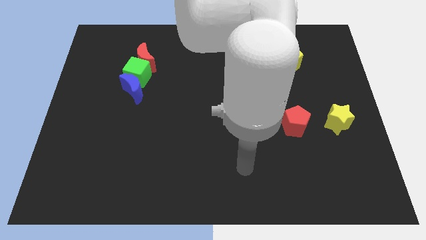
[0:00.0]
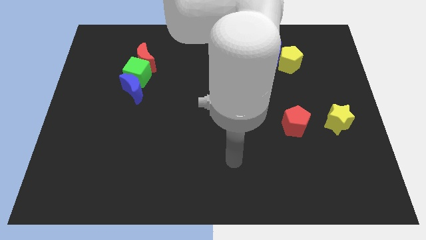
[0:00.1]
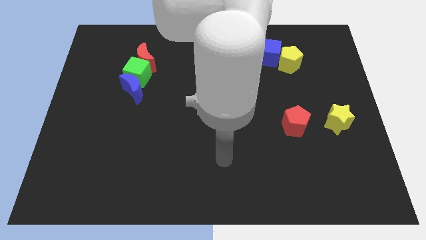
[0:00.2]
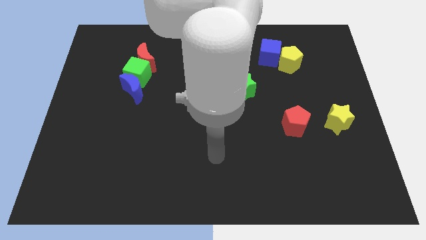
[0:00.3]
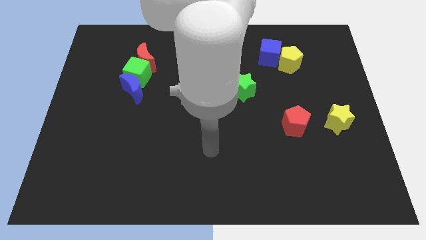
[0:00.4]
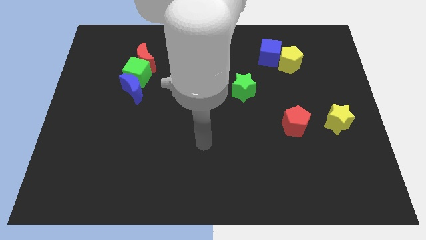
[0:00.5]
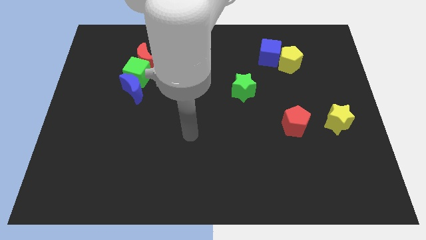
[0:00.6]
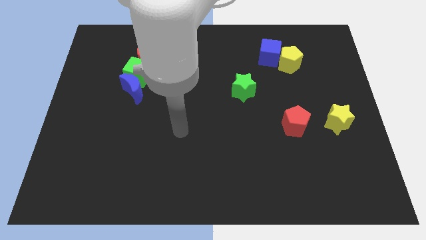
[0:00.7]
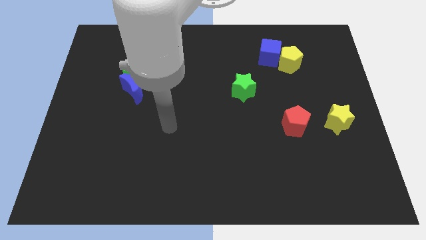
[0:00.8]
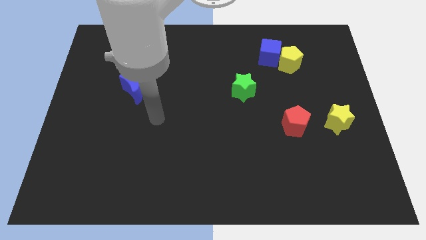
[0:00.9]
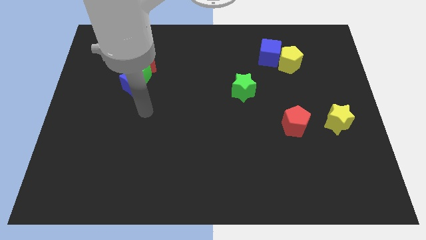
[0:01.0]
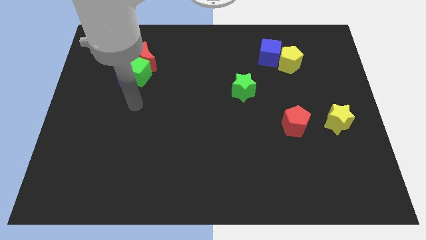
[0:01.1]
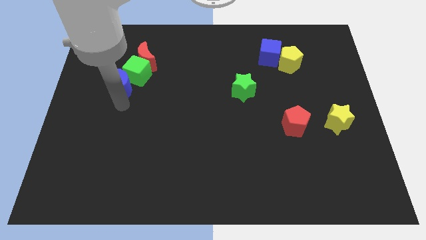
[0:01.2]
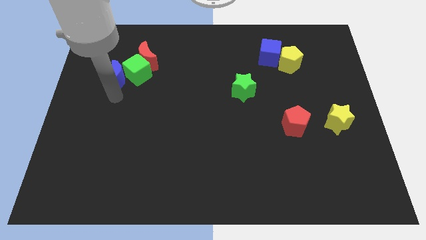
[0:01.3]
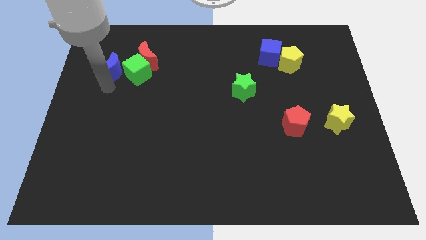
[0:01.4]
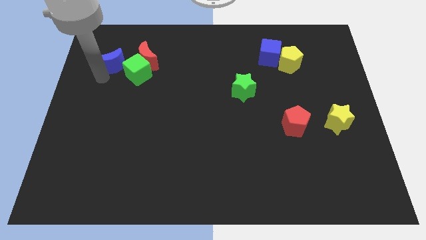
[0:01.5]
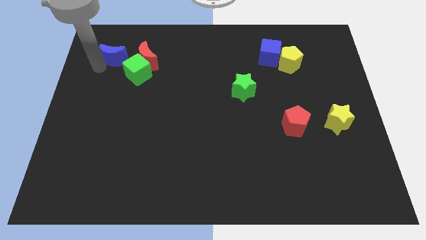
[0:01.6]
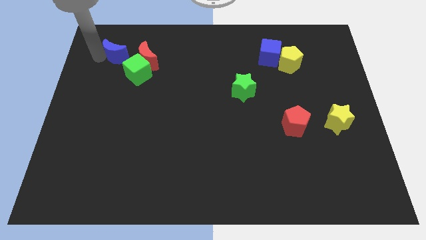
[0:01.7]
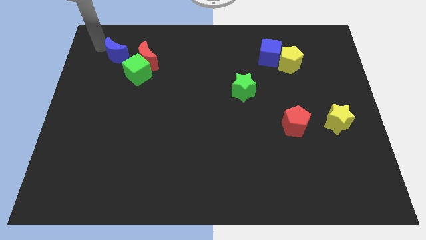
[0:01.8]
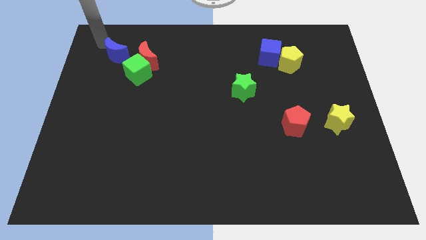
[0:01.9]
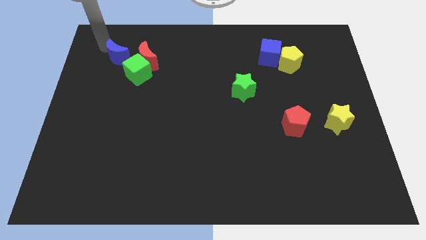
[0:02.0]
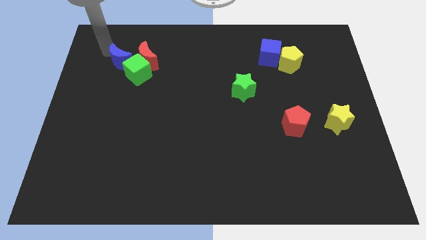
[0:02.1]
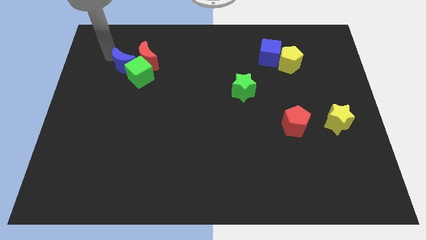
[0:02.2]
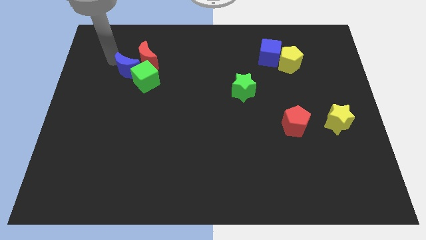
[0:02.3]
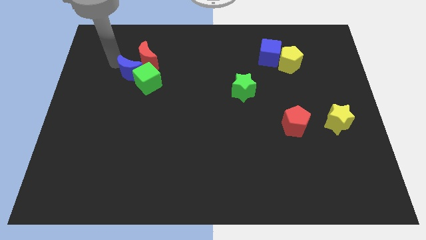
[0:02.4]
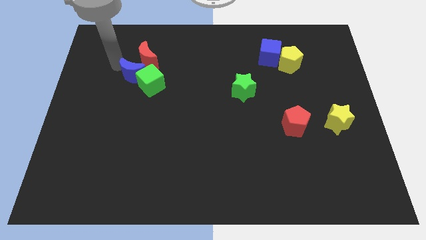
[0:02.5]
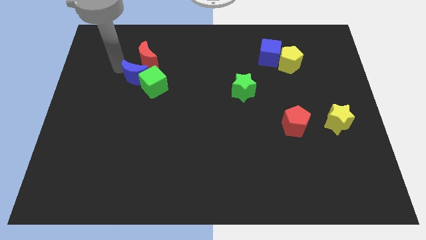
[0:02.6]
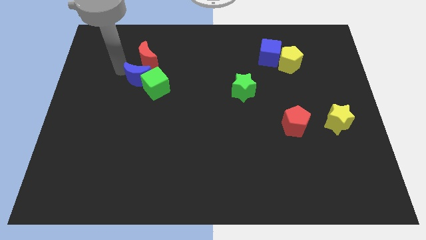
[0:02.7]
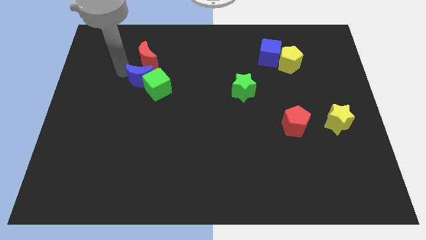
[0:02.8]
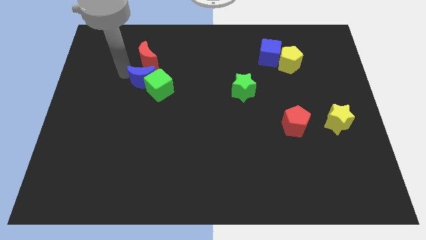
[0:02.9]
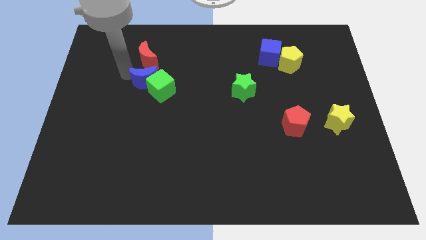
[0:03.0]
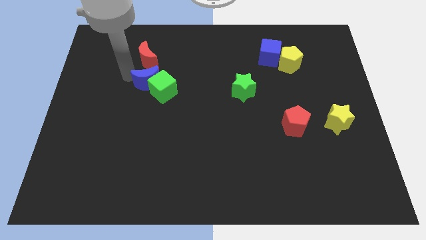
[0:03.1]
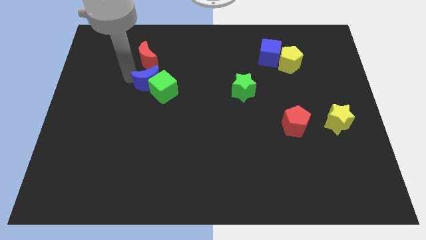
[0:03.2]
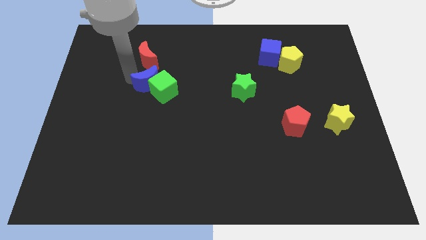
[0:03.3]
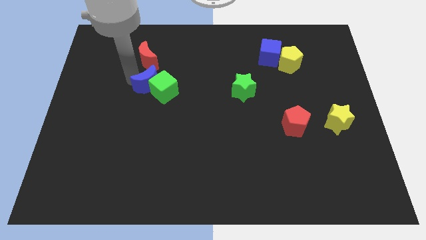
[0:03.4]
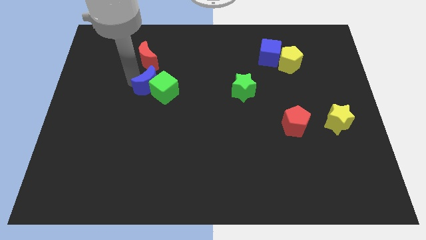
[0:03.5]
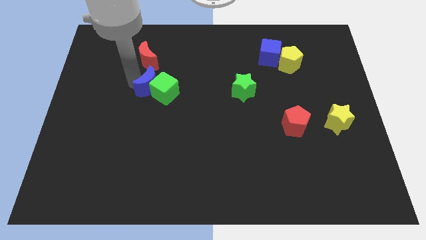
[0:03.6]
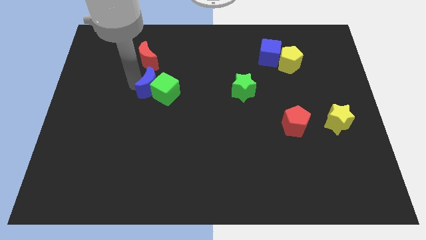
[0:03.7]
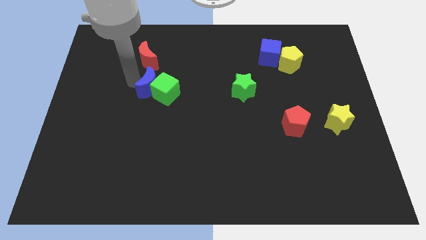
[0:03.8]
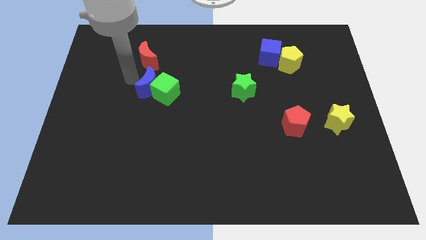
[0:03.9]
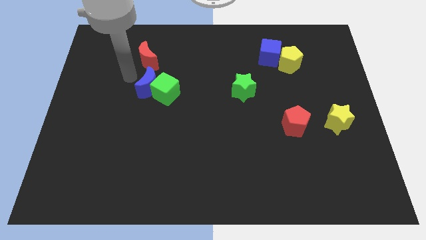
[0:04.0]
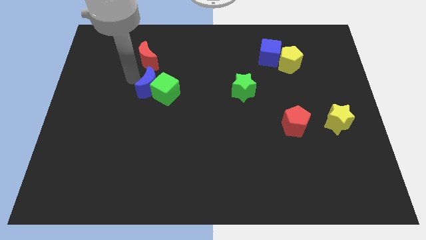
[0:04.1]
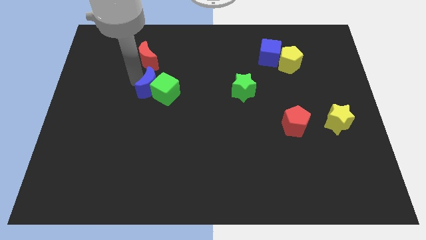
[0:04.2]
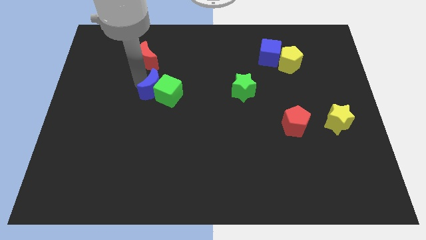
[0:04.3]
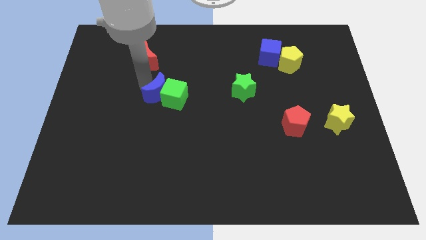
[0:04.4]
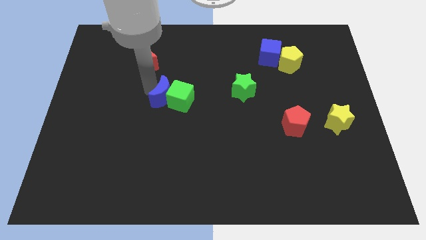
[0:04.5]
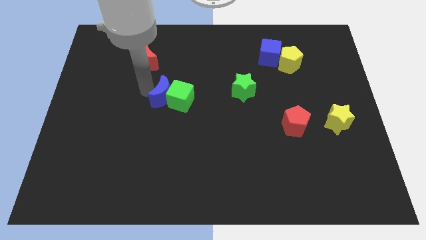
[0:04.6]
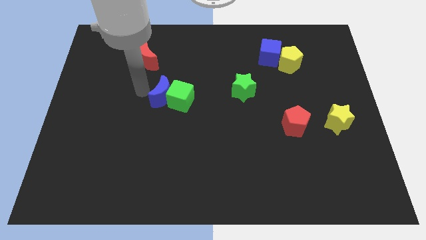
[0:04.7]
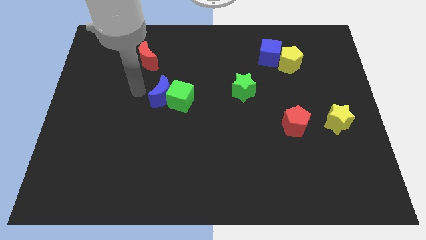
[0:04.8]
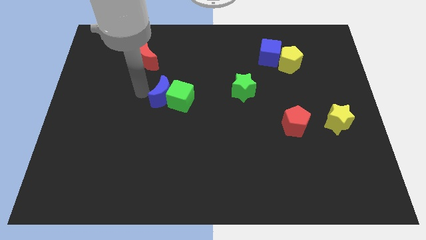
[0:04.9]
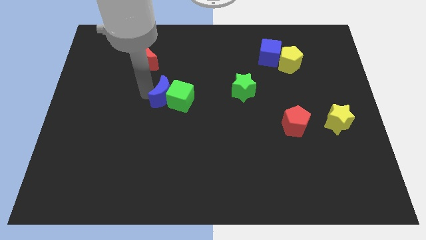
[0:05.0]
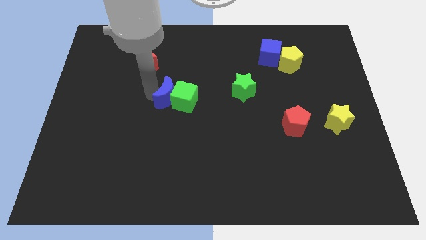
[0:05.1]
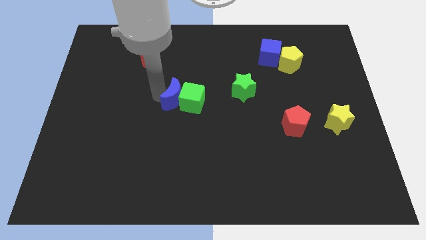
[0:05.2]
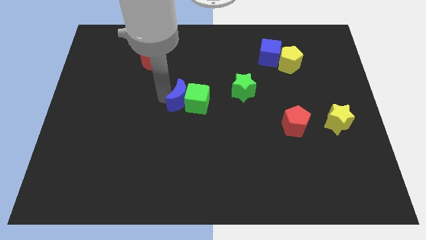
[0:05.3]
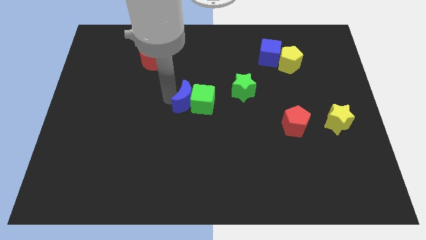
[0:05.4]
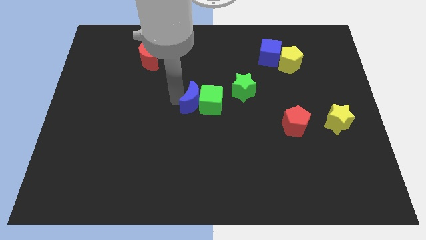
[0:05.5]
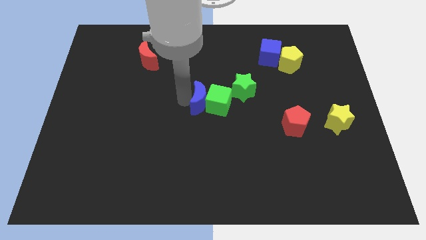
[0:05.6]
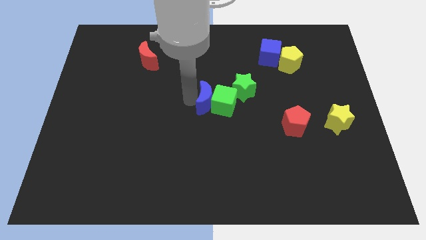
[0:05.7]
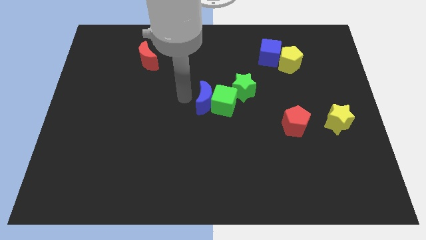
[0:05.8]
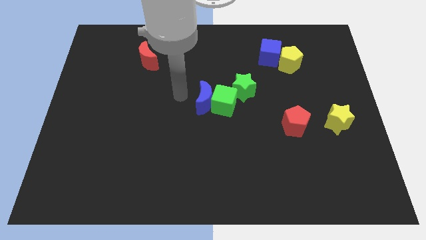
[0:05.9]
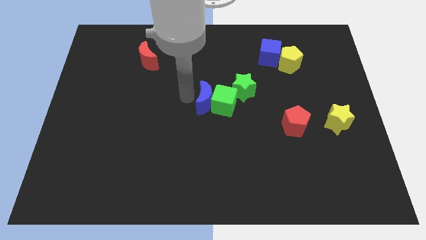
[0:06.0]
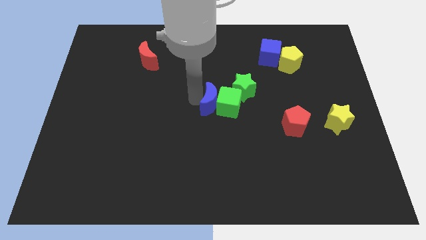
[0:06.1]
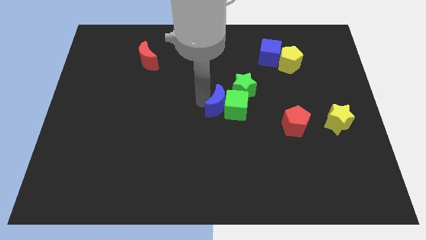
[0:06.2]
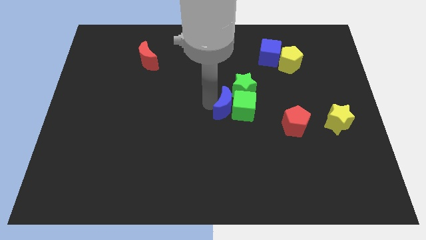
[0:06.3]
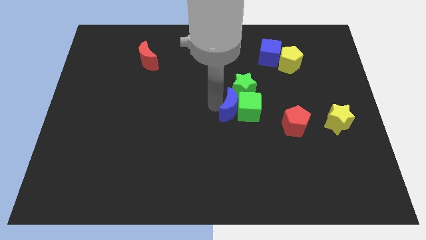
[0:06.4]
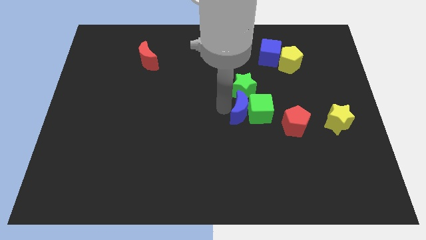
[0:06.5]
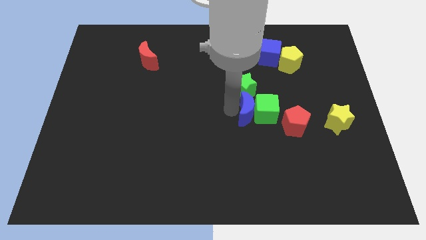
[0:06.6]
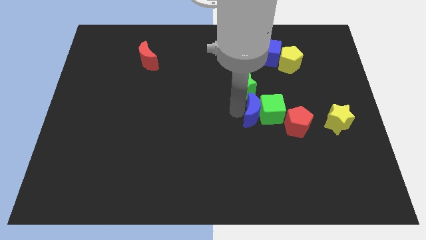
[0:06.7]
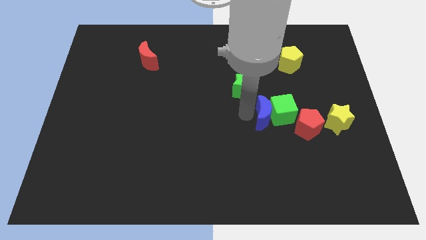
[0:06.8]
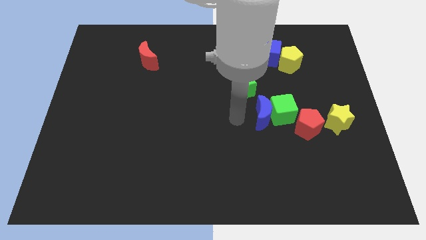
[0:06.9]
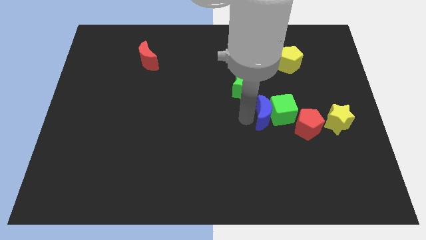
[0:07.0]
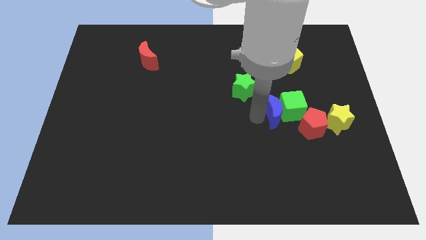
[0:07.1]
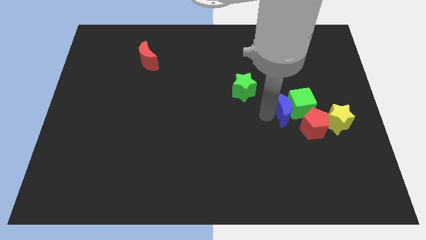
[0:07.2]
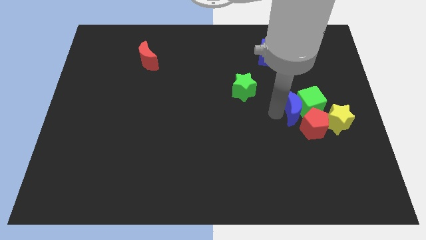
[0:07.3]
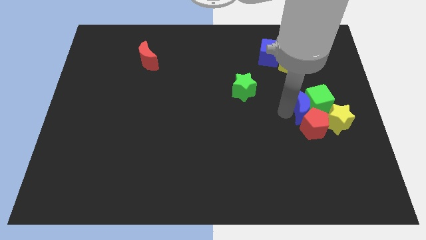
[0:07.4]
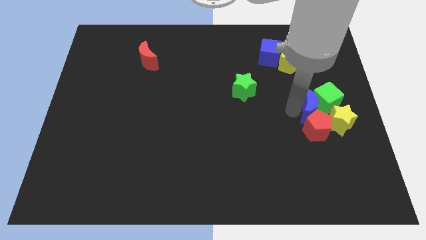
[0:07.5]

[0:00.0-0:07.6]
move the blue moon to the top right side of the red pentagon
